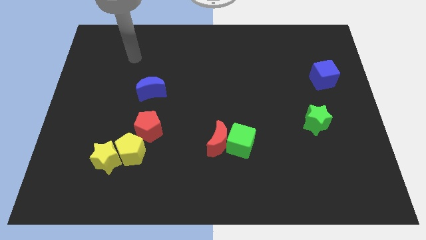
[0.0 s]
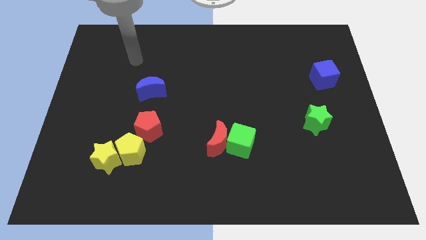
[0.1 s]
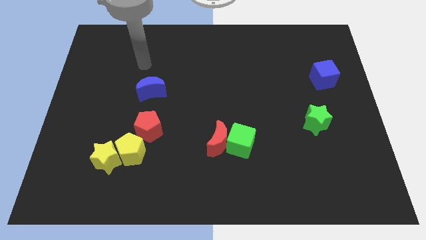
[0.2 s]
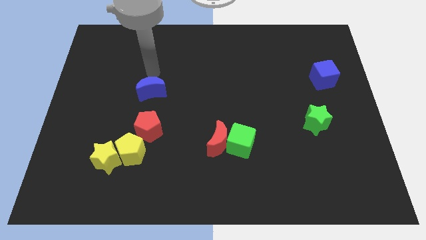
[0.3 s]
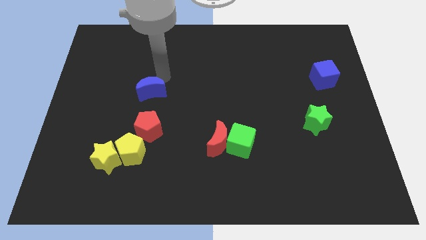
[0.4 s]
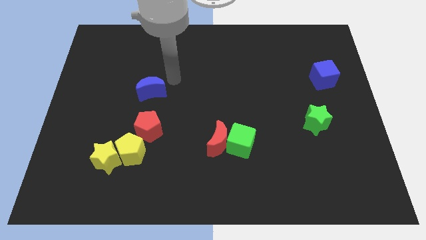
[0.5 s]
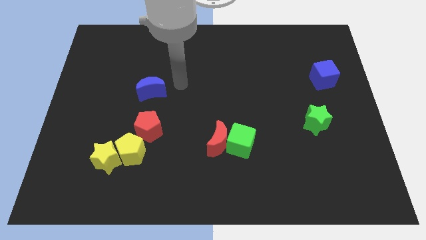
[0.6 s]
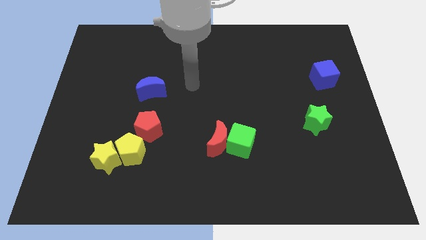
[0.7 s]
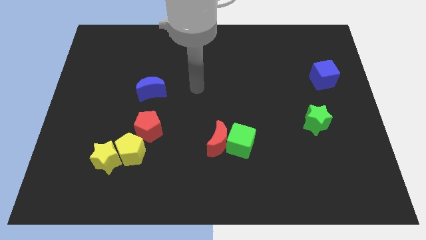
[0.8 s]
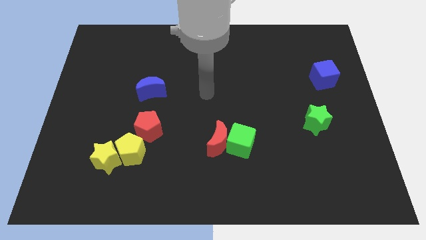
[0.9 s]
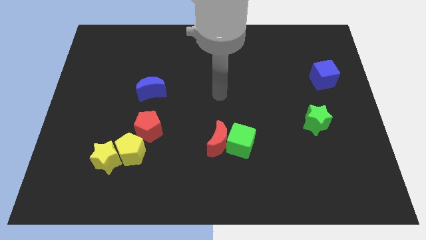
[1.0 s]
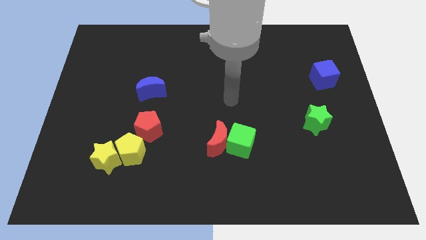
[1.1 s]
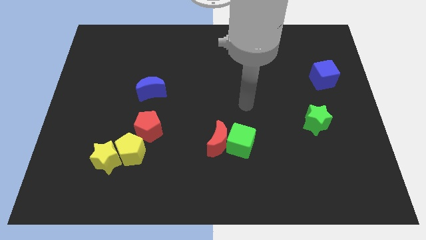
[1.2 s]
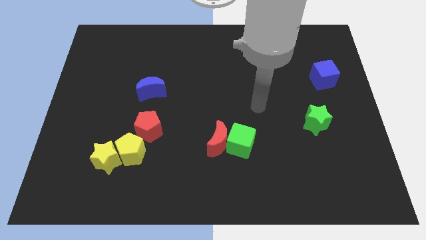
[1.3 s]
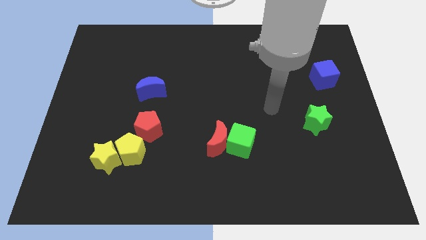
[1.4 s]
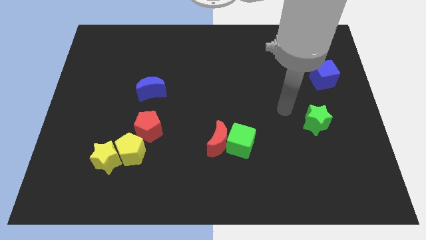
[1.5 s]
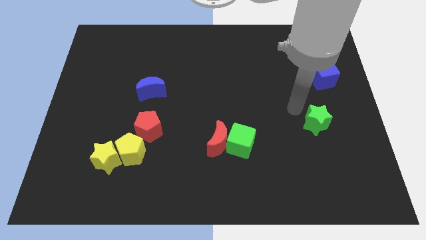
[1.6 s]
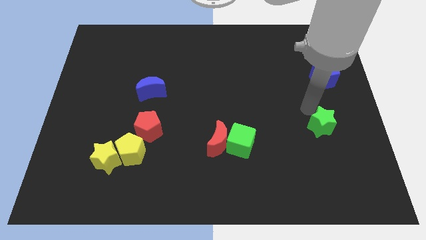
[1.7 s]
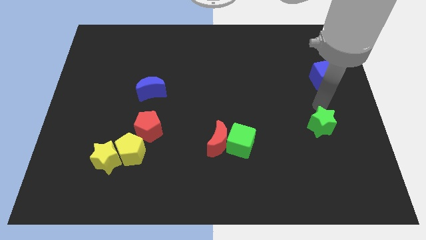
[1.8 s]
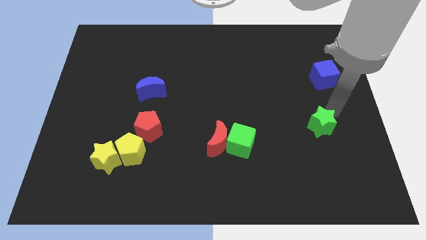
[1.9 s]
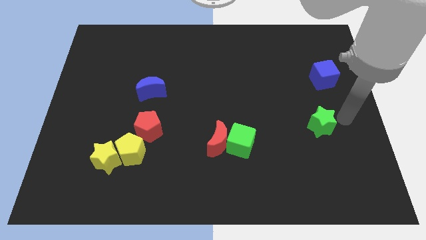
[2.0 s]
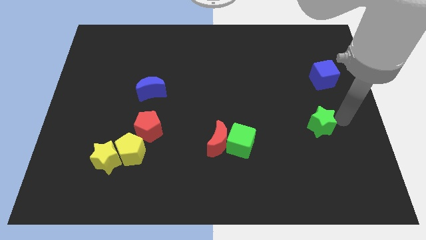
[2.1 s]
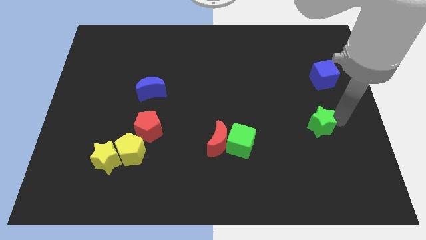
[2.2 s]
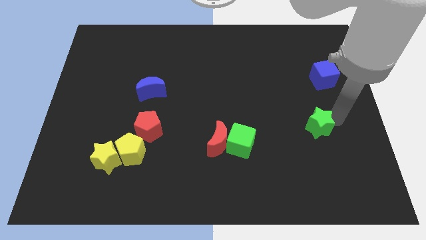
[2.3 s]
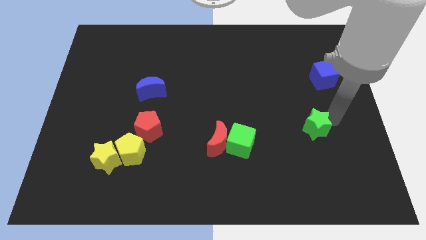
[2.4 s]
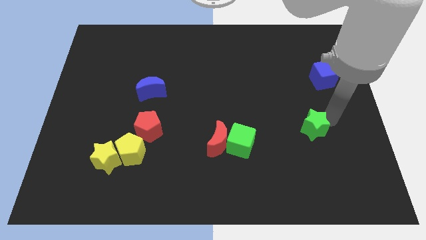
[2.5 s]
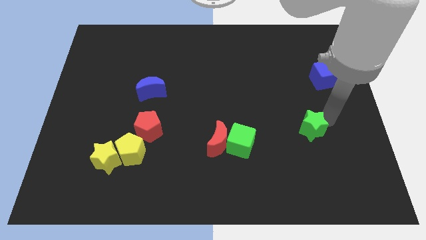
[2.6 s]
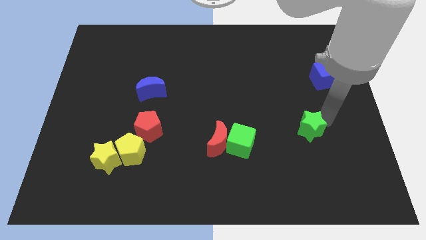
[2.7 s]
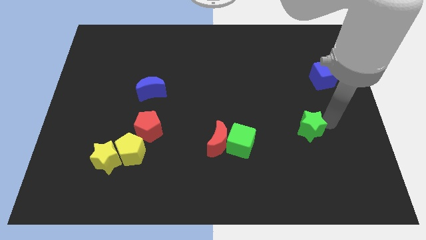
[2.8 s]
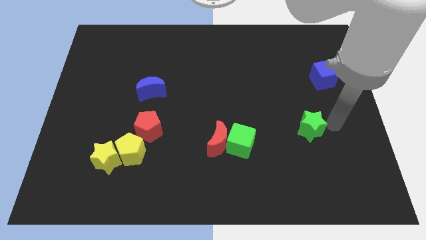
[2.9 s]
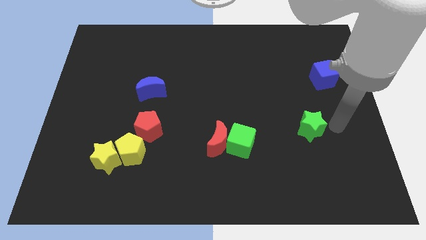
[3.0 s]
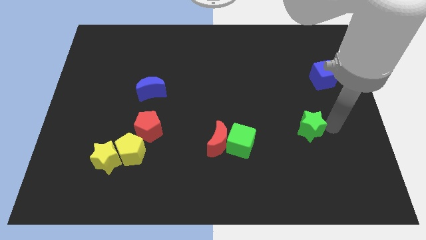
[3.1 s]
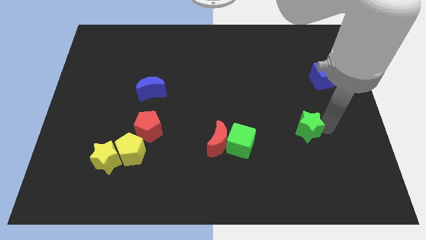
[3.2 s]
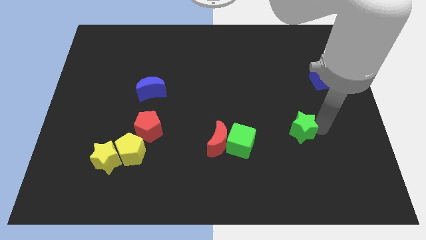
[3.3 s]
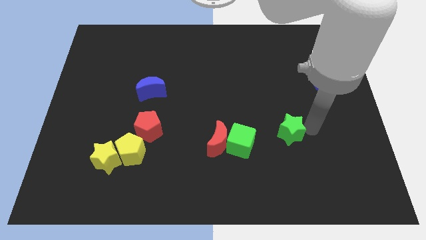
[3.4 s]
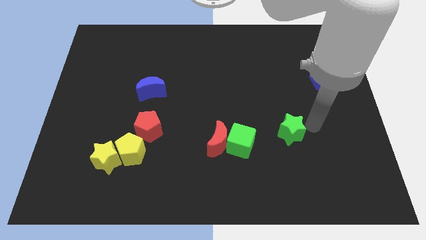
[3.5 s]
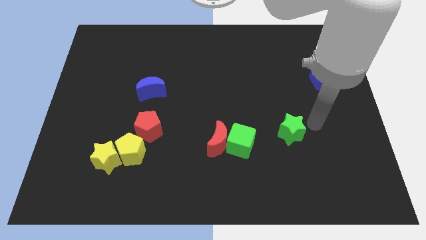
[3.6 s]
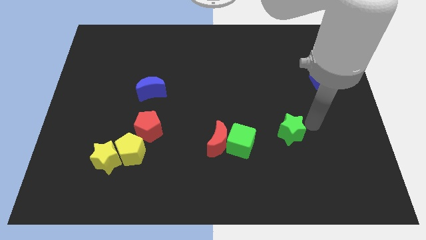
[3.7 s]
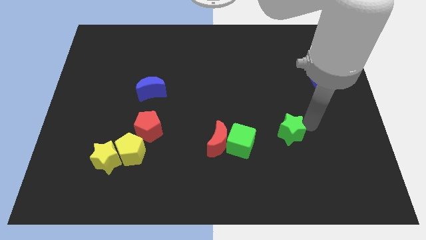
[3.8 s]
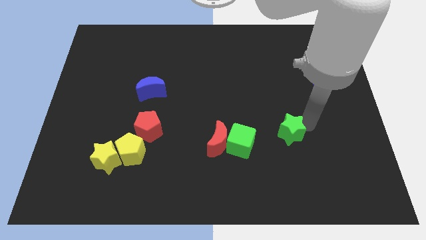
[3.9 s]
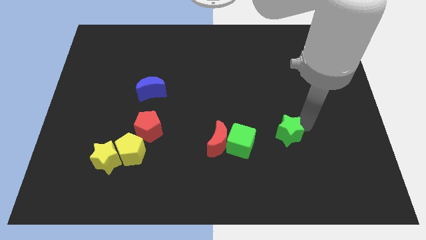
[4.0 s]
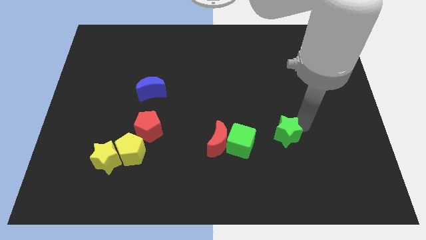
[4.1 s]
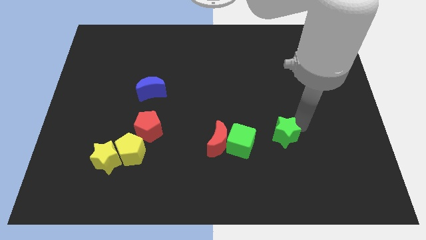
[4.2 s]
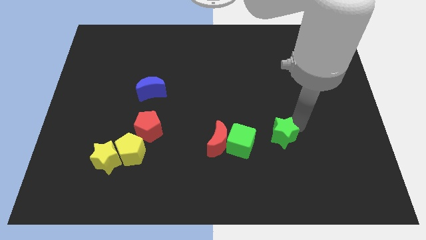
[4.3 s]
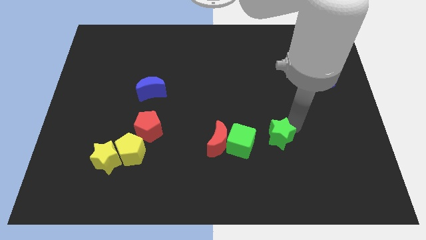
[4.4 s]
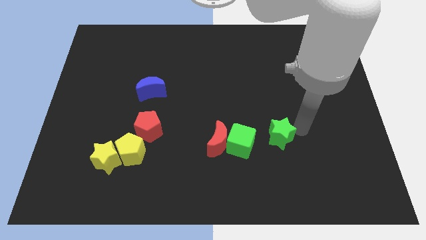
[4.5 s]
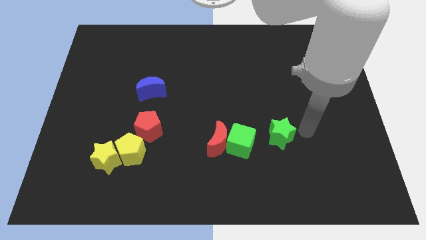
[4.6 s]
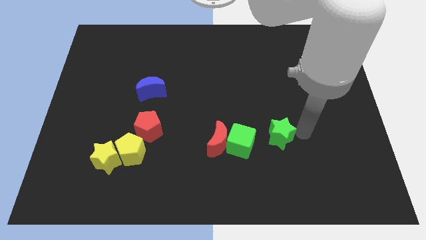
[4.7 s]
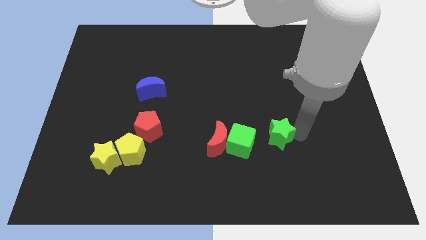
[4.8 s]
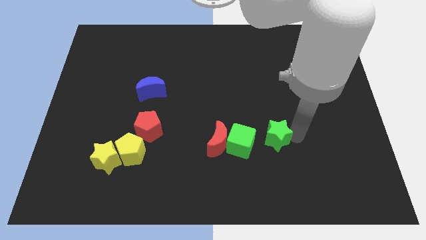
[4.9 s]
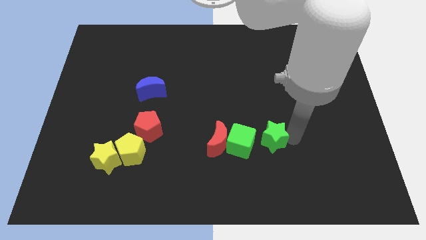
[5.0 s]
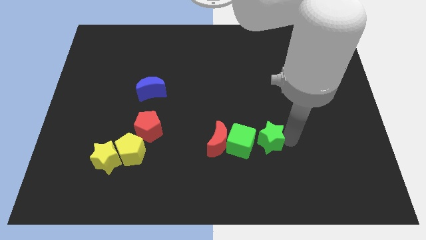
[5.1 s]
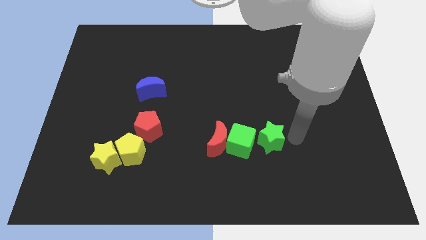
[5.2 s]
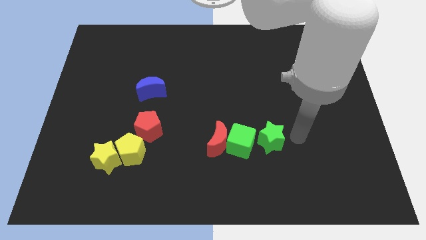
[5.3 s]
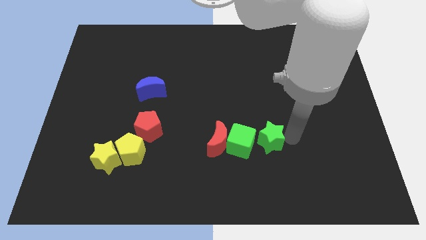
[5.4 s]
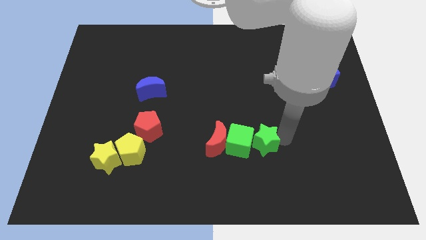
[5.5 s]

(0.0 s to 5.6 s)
put the green star close to the green cube

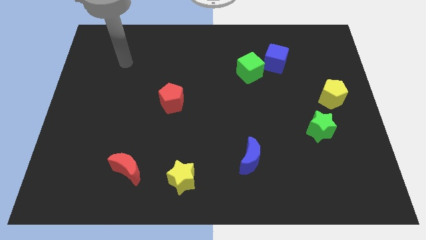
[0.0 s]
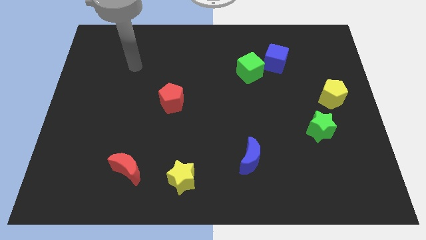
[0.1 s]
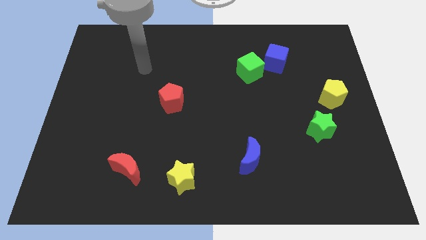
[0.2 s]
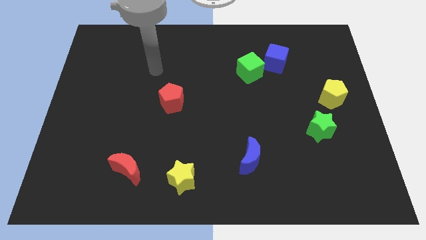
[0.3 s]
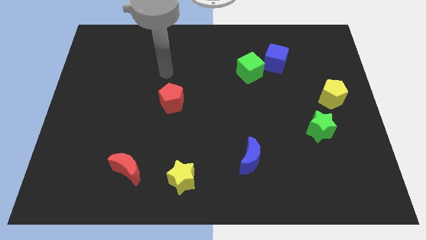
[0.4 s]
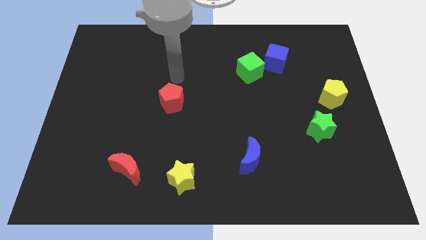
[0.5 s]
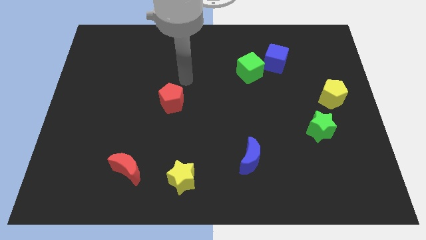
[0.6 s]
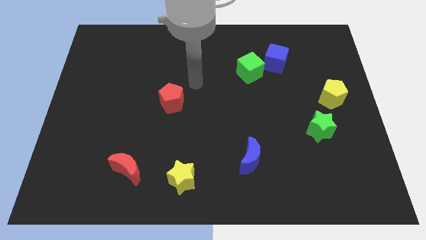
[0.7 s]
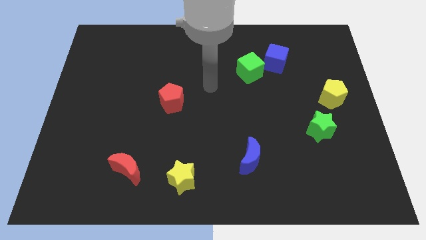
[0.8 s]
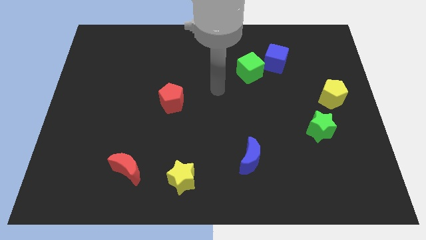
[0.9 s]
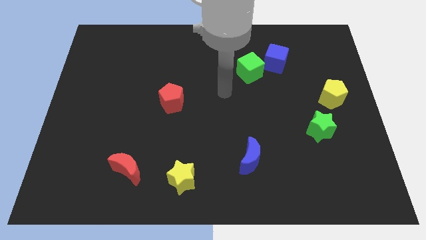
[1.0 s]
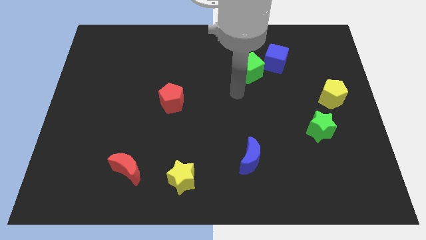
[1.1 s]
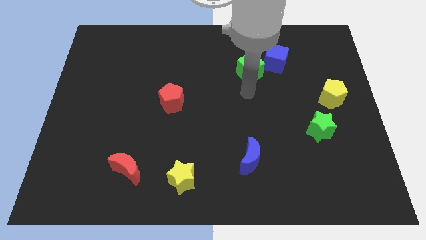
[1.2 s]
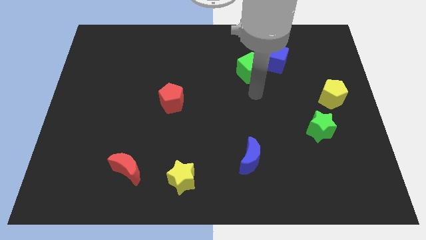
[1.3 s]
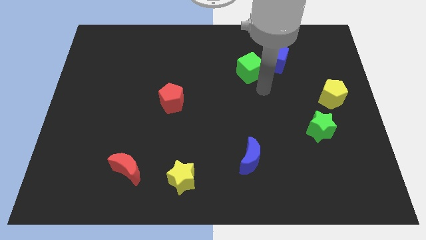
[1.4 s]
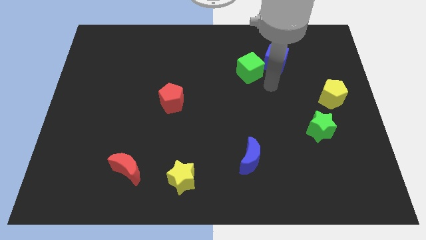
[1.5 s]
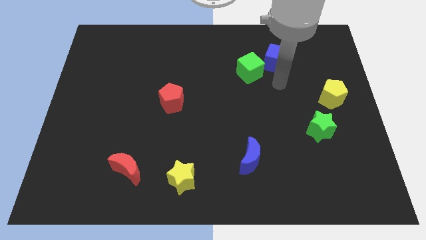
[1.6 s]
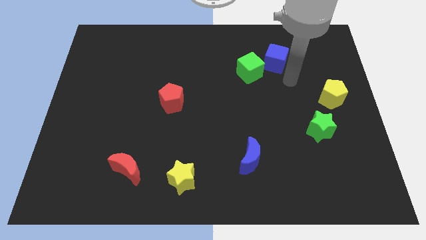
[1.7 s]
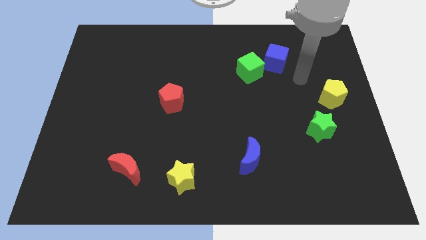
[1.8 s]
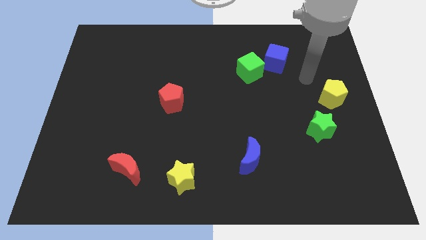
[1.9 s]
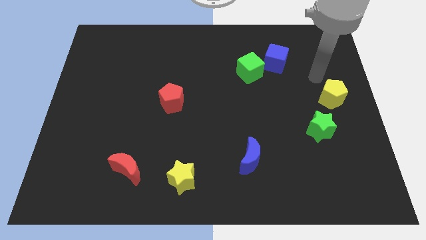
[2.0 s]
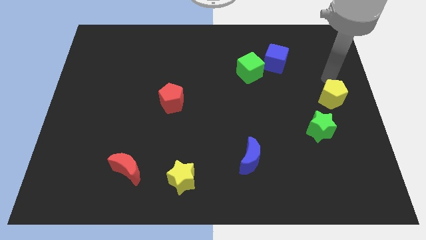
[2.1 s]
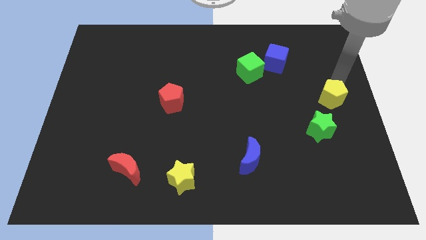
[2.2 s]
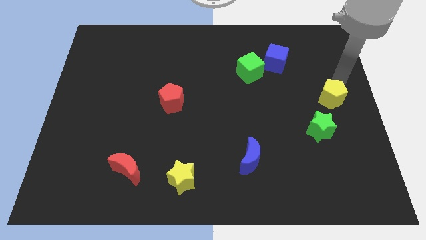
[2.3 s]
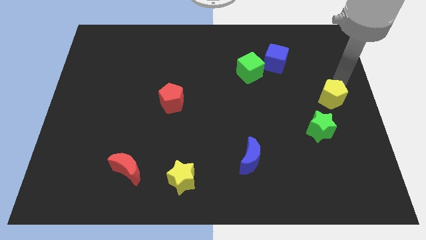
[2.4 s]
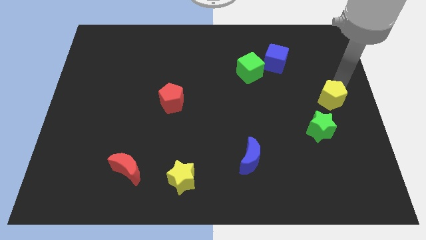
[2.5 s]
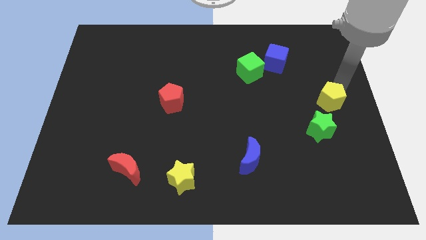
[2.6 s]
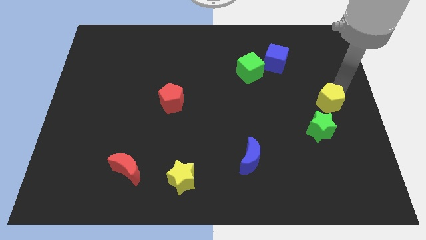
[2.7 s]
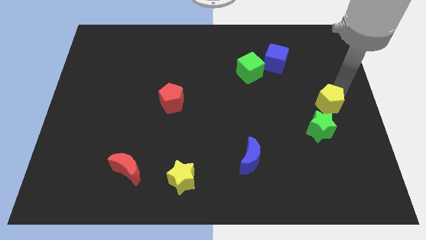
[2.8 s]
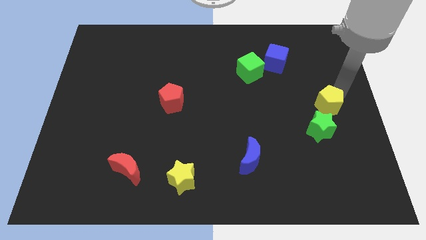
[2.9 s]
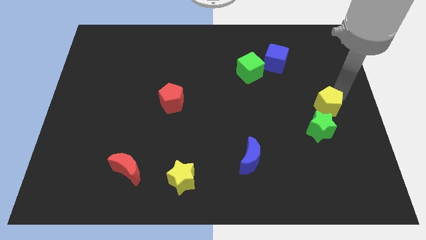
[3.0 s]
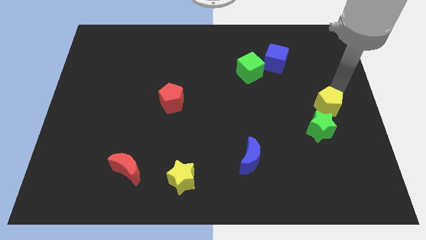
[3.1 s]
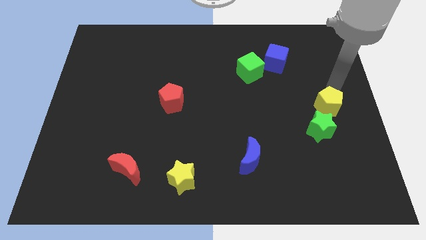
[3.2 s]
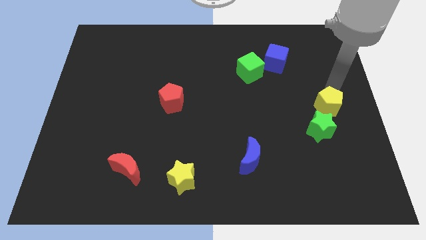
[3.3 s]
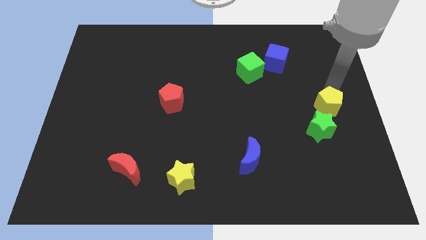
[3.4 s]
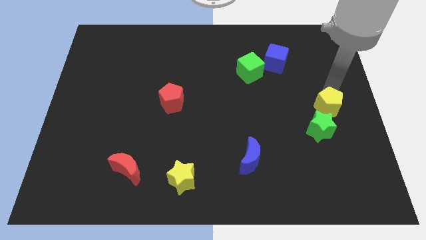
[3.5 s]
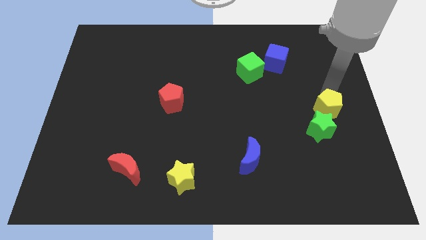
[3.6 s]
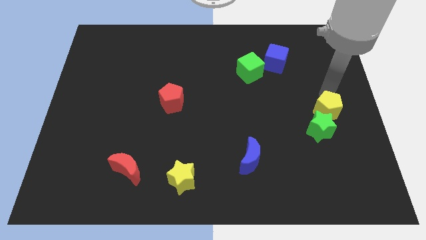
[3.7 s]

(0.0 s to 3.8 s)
move the yellow pentagon next to the green star
